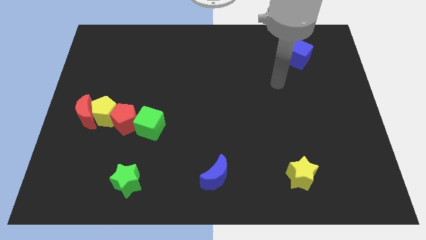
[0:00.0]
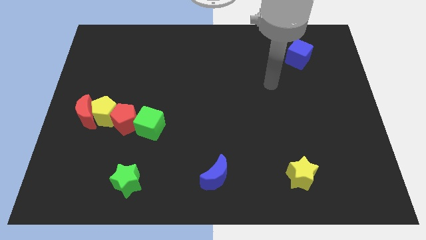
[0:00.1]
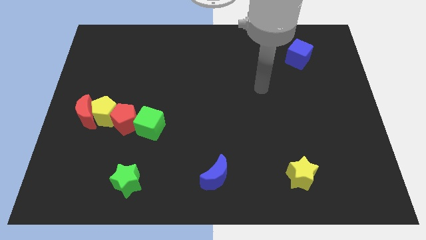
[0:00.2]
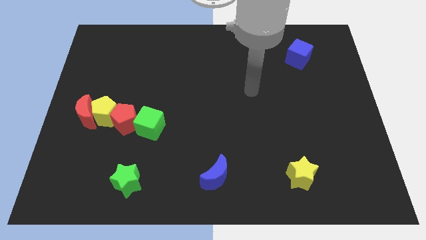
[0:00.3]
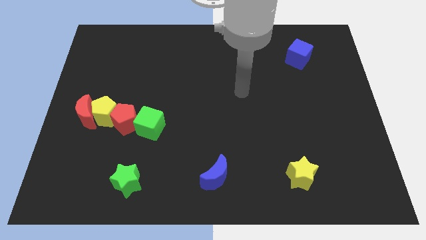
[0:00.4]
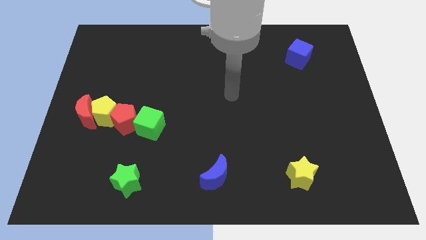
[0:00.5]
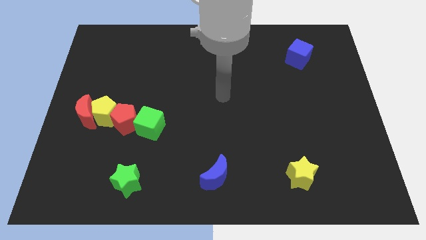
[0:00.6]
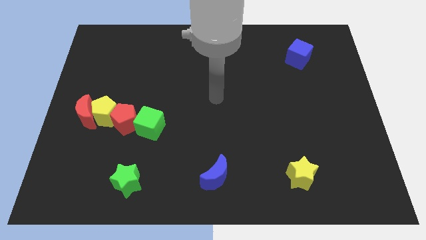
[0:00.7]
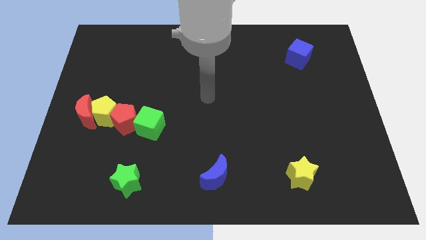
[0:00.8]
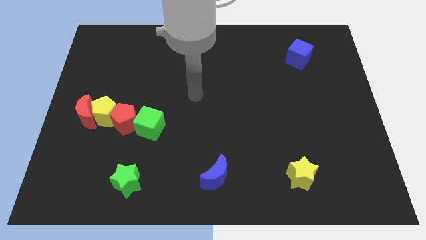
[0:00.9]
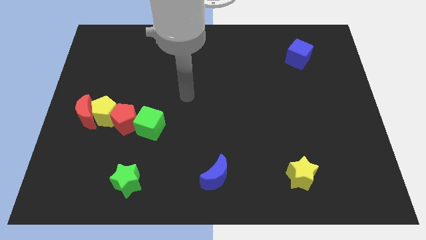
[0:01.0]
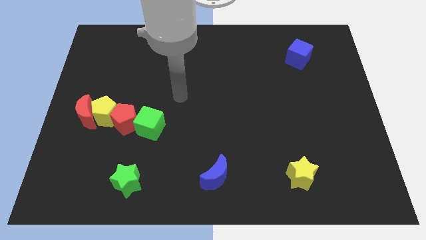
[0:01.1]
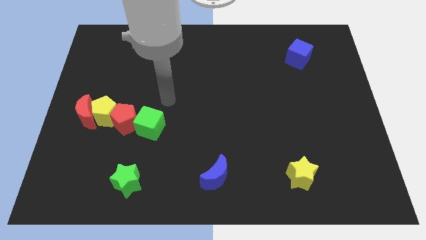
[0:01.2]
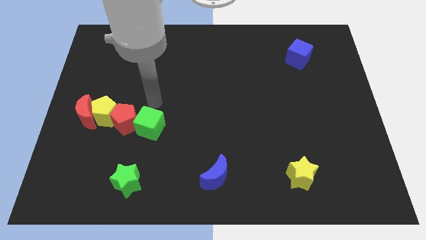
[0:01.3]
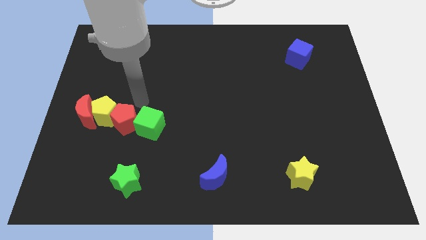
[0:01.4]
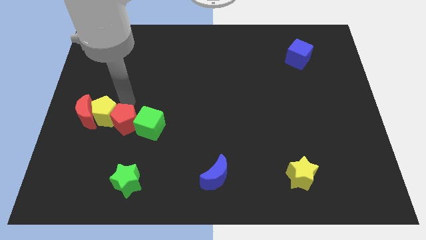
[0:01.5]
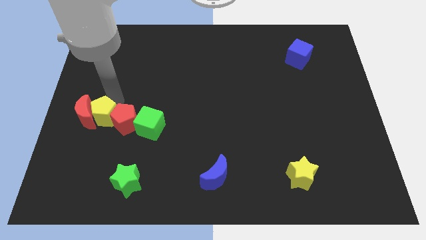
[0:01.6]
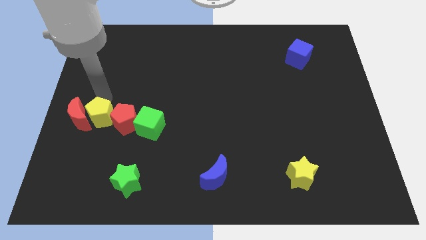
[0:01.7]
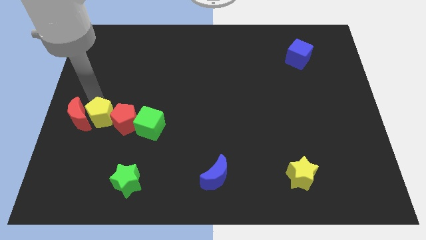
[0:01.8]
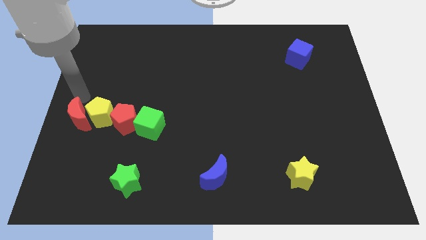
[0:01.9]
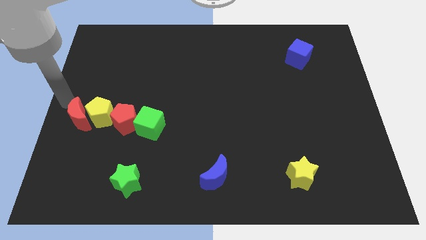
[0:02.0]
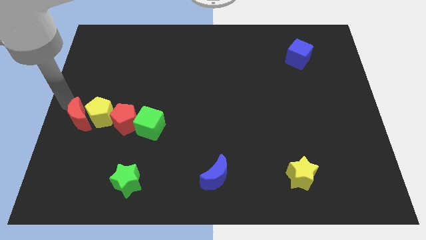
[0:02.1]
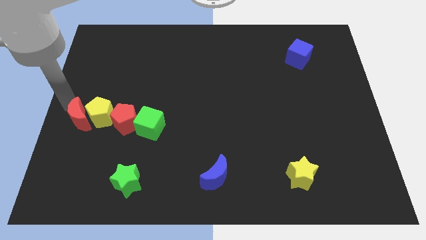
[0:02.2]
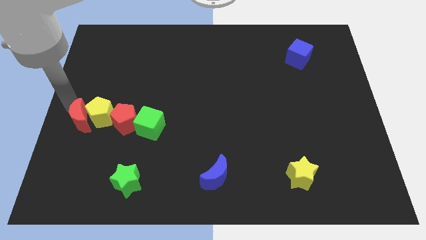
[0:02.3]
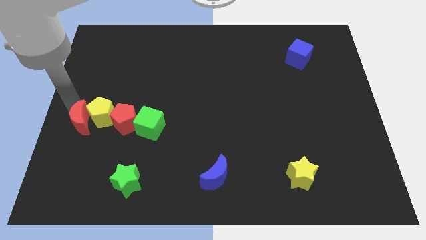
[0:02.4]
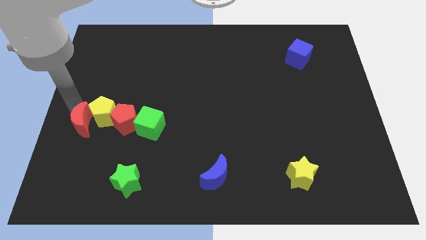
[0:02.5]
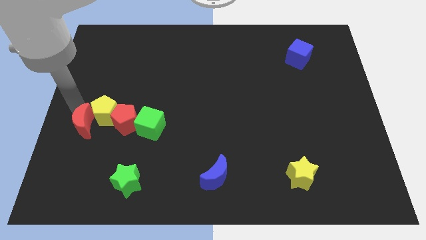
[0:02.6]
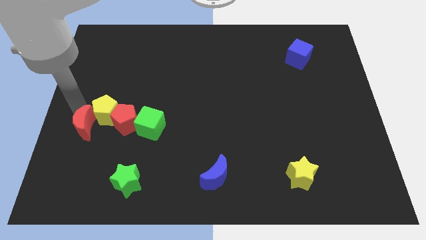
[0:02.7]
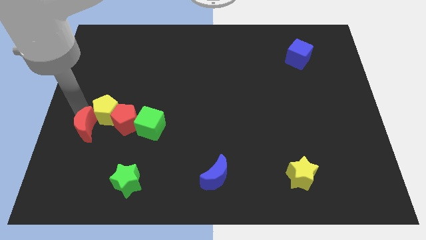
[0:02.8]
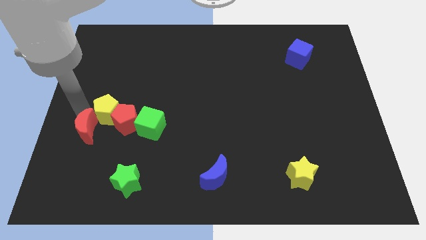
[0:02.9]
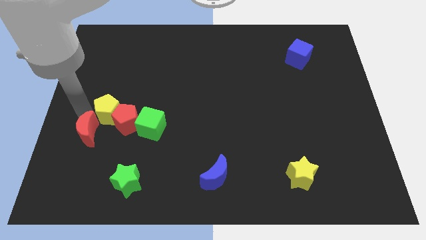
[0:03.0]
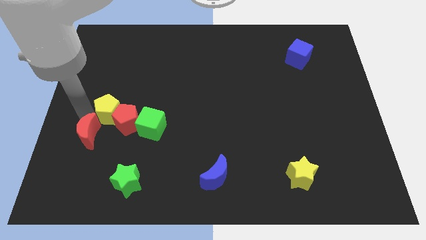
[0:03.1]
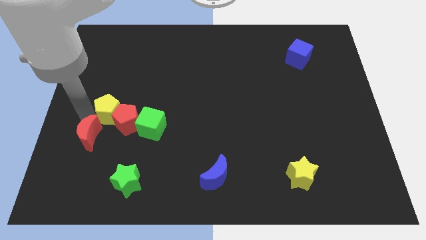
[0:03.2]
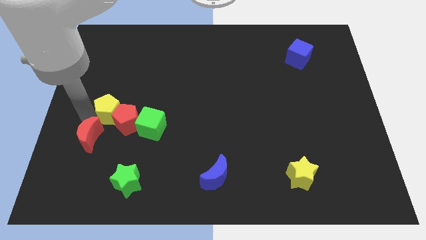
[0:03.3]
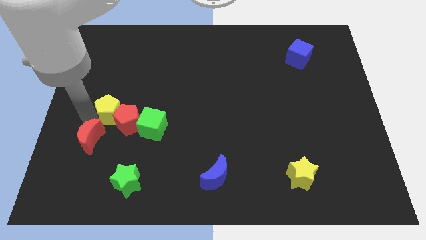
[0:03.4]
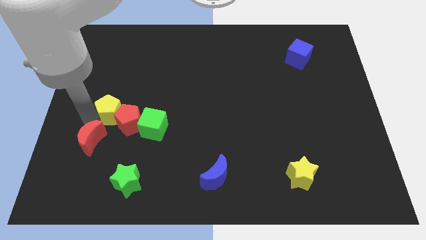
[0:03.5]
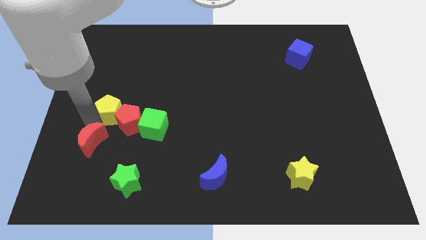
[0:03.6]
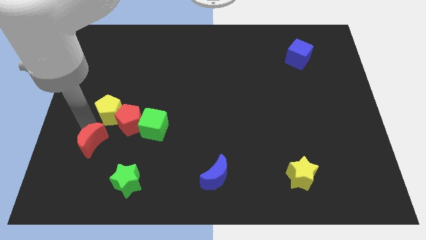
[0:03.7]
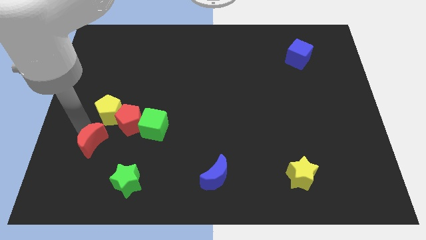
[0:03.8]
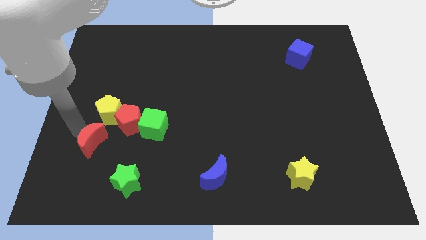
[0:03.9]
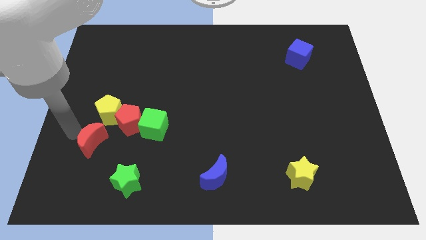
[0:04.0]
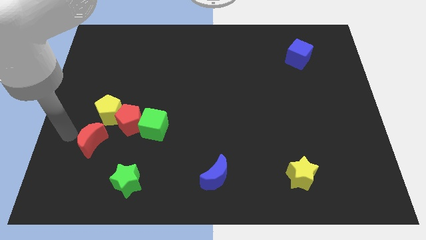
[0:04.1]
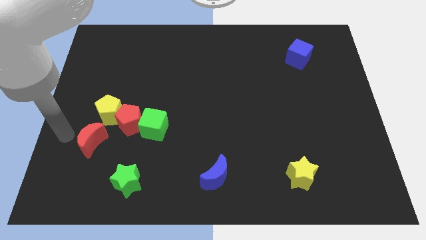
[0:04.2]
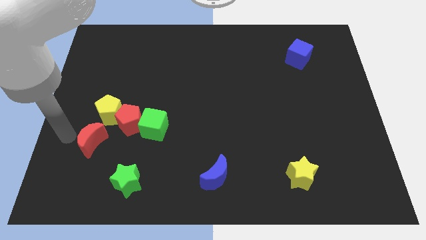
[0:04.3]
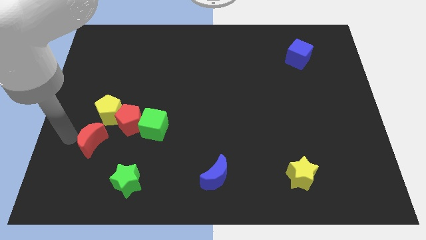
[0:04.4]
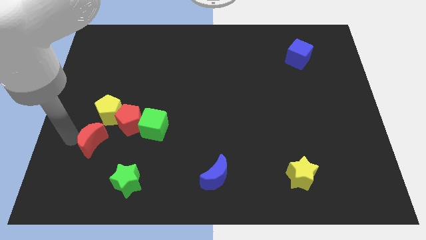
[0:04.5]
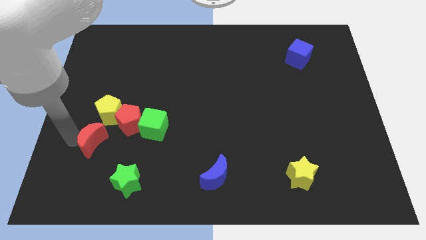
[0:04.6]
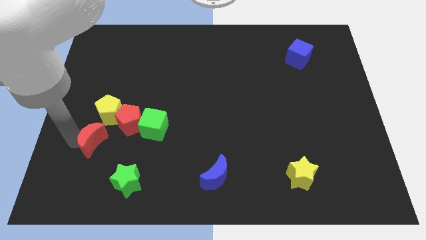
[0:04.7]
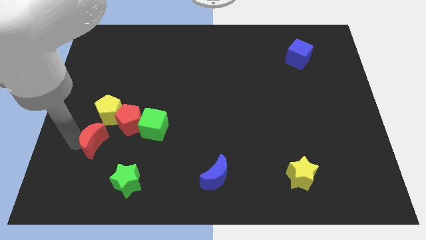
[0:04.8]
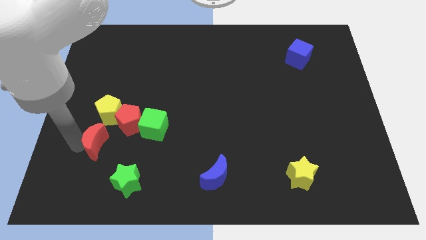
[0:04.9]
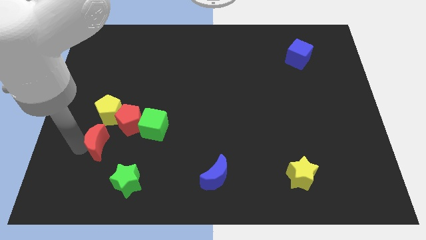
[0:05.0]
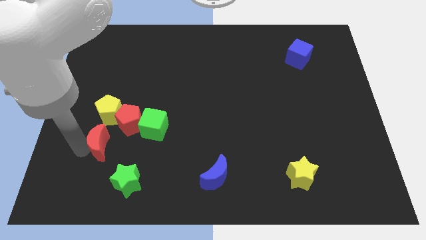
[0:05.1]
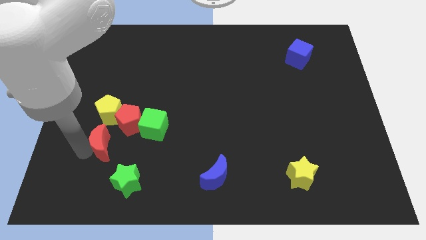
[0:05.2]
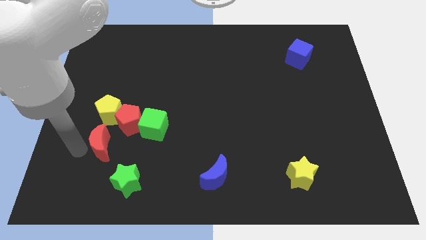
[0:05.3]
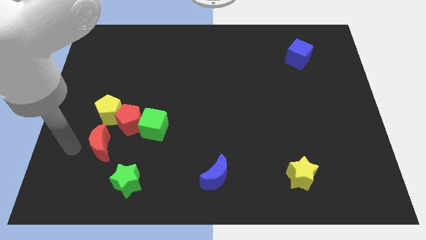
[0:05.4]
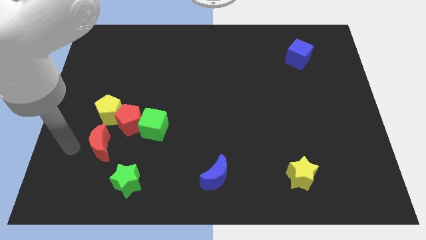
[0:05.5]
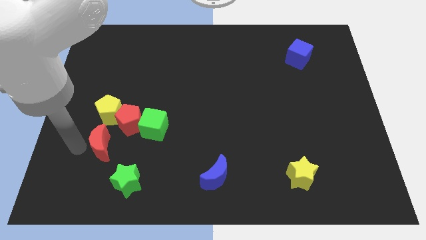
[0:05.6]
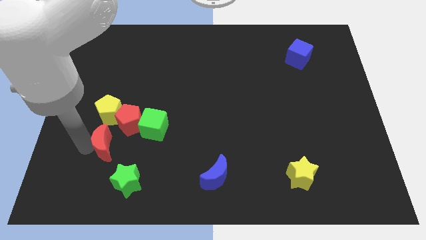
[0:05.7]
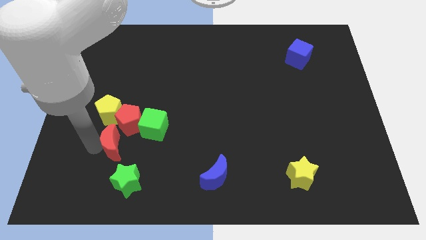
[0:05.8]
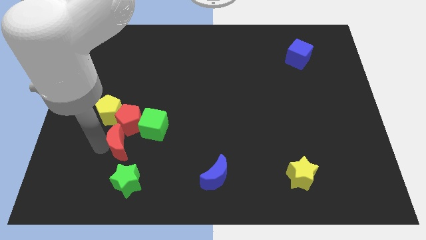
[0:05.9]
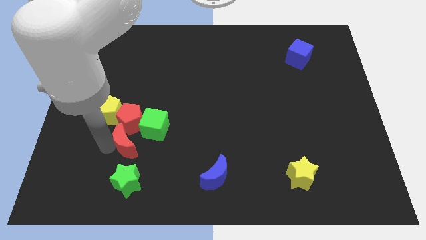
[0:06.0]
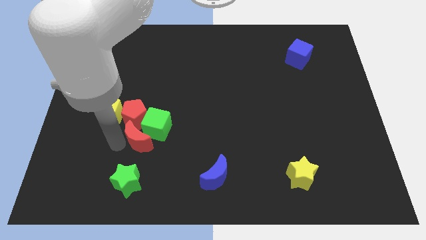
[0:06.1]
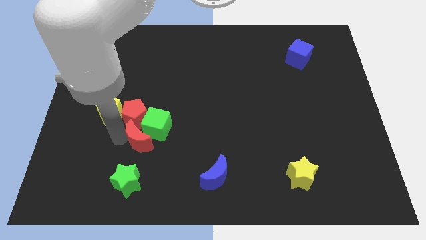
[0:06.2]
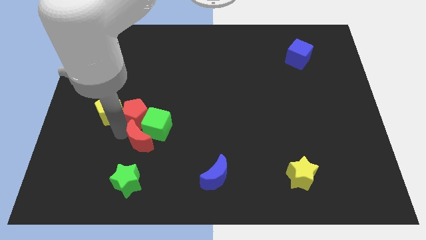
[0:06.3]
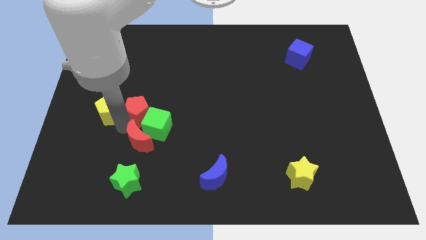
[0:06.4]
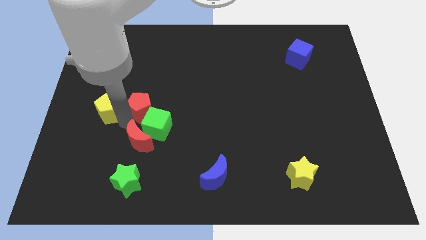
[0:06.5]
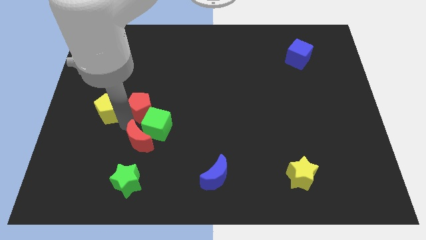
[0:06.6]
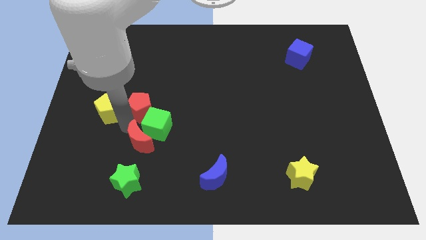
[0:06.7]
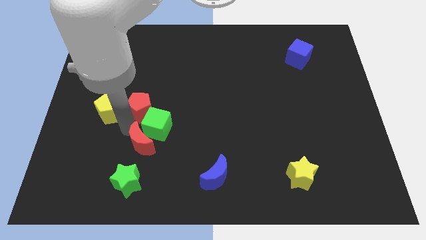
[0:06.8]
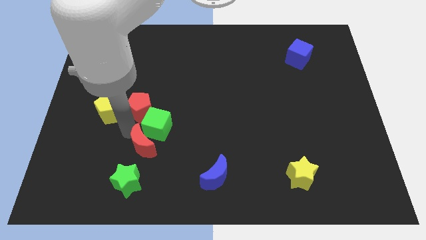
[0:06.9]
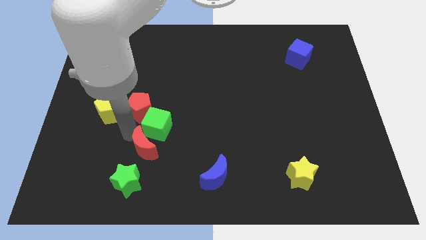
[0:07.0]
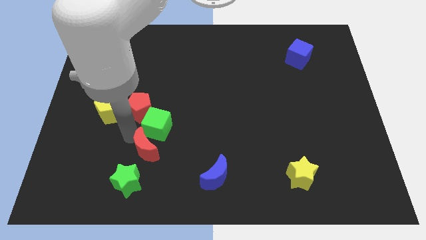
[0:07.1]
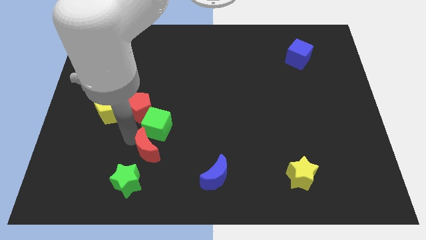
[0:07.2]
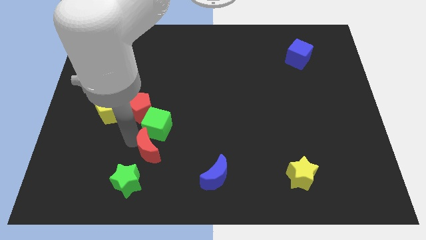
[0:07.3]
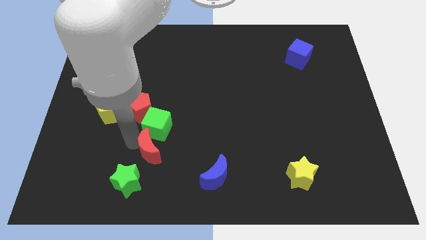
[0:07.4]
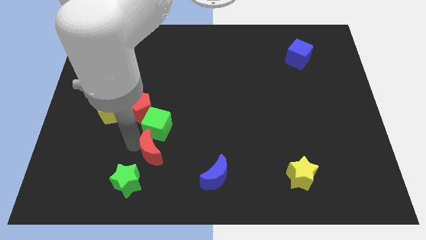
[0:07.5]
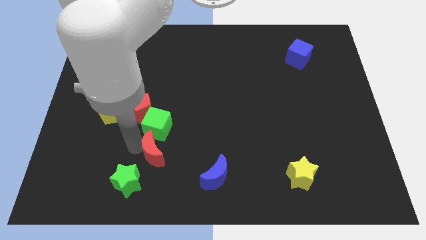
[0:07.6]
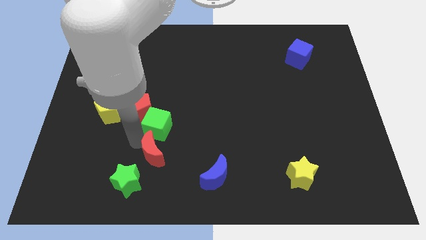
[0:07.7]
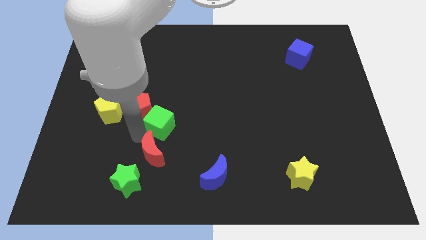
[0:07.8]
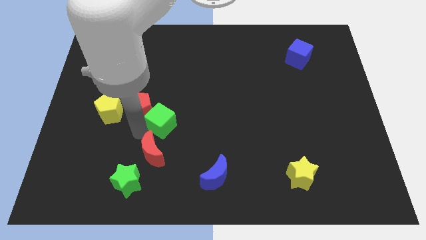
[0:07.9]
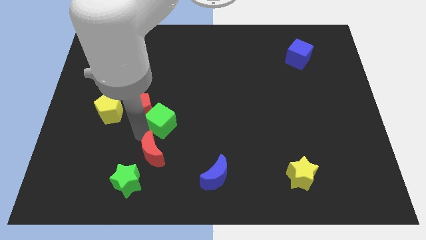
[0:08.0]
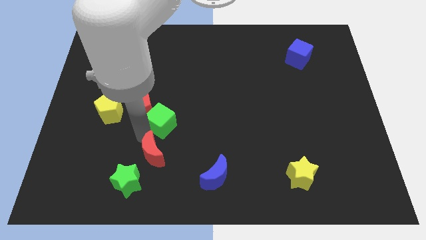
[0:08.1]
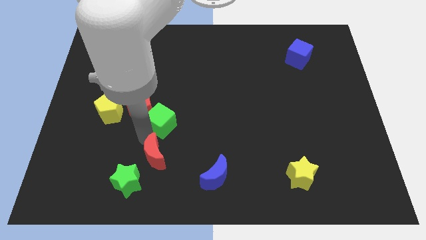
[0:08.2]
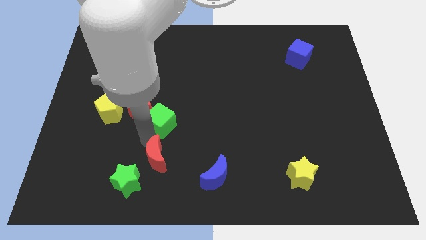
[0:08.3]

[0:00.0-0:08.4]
move the red moon left of the blue moon
